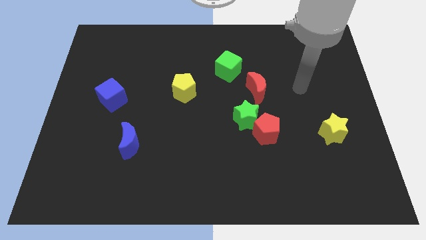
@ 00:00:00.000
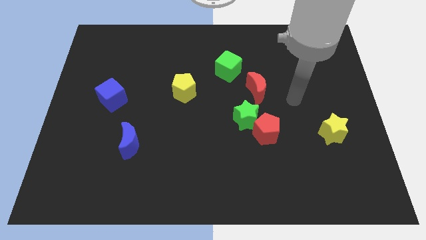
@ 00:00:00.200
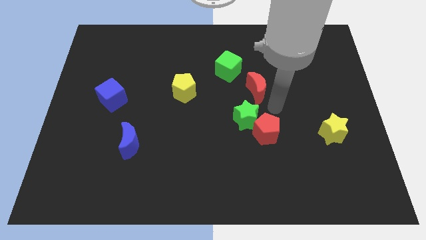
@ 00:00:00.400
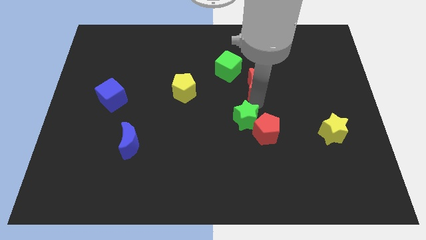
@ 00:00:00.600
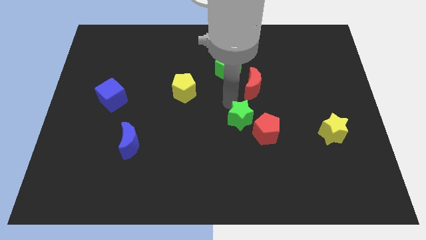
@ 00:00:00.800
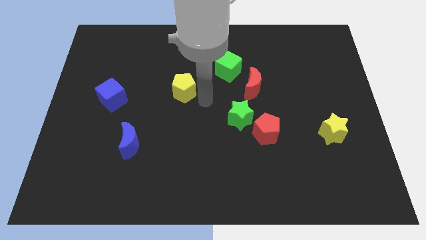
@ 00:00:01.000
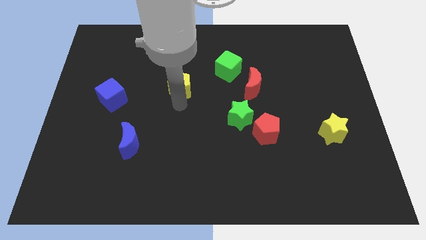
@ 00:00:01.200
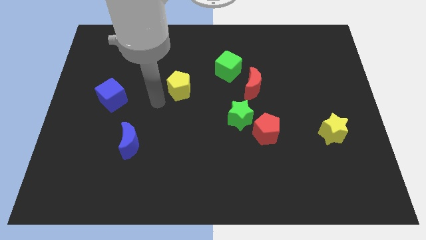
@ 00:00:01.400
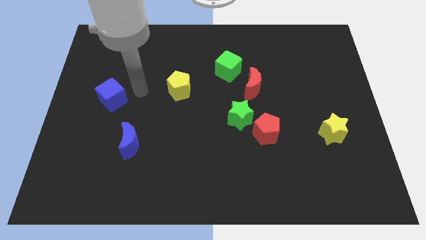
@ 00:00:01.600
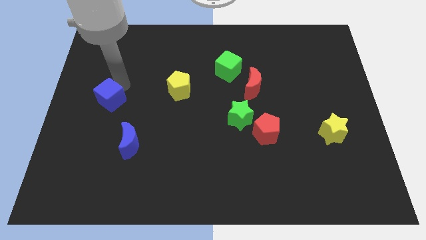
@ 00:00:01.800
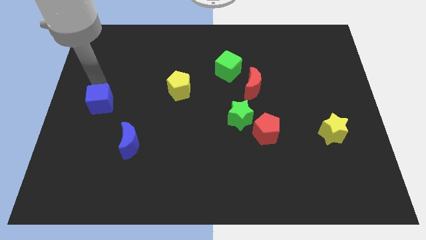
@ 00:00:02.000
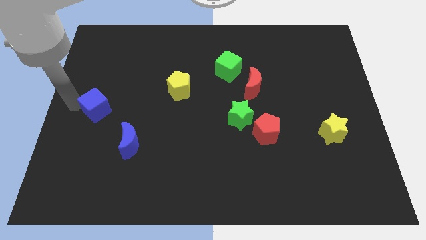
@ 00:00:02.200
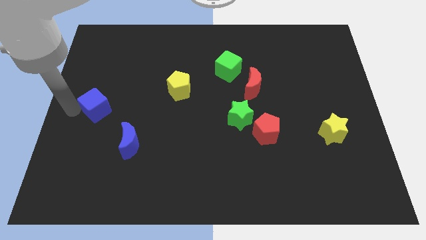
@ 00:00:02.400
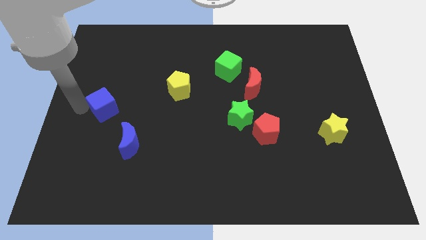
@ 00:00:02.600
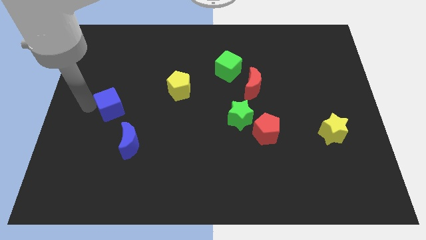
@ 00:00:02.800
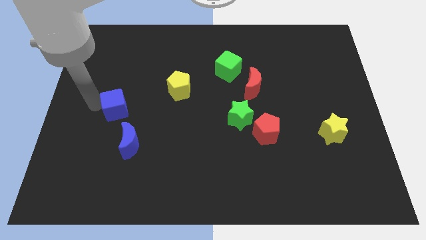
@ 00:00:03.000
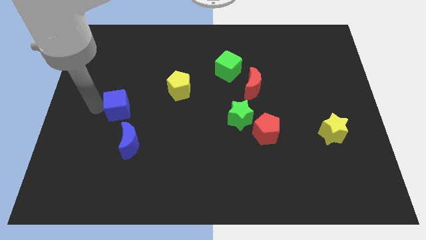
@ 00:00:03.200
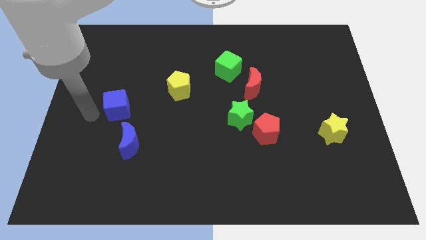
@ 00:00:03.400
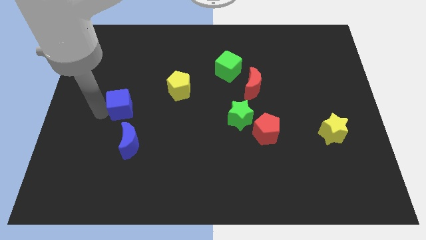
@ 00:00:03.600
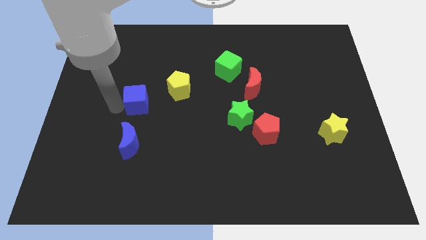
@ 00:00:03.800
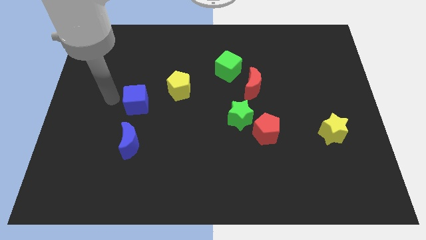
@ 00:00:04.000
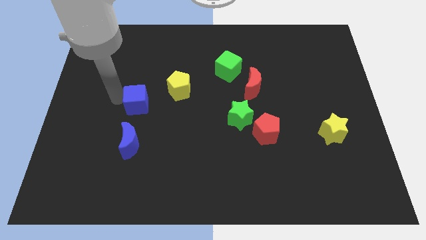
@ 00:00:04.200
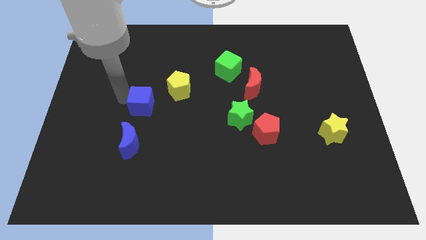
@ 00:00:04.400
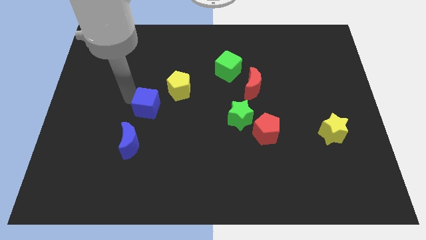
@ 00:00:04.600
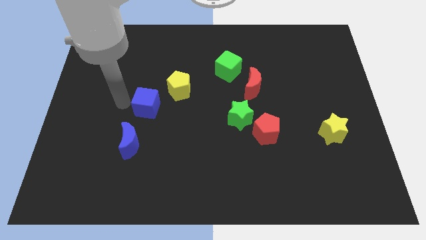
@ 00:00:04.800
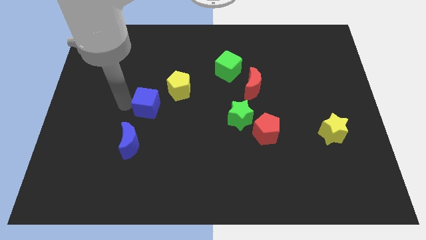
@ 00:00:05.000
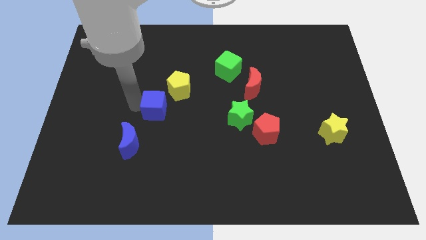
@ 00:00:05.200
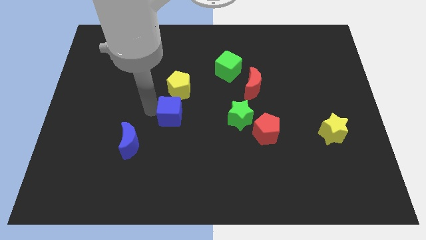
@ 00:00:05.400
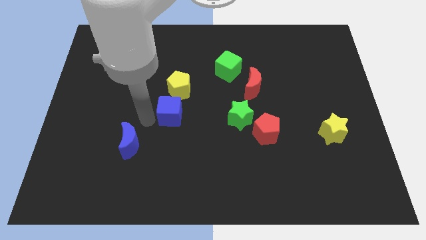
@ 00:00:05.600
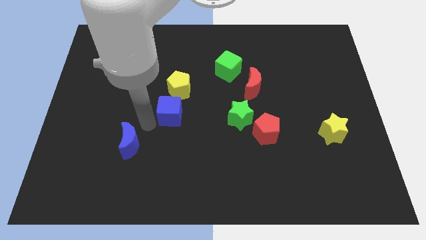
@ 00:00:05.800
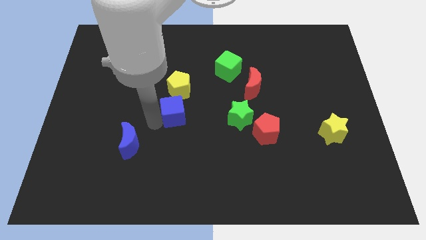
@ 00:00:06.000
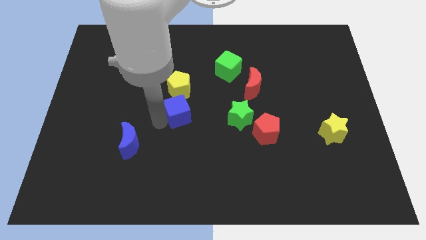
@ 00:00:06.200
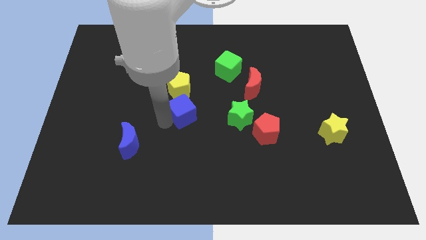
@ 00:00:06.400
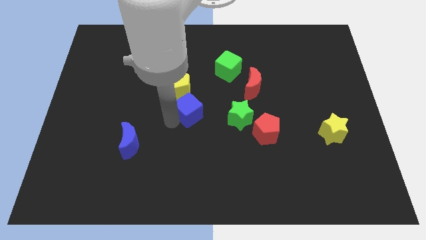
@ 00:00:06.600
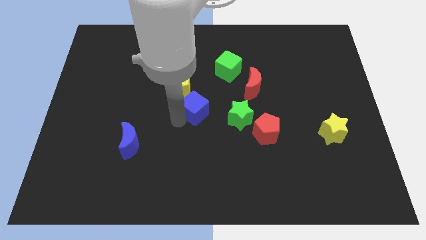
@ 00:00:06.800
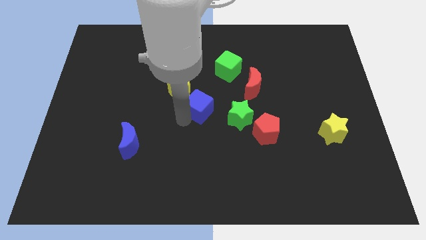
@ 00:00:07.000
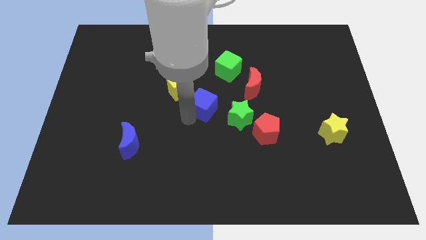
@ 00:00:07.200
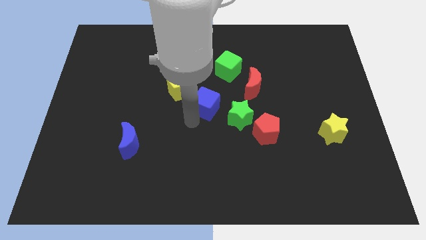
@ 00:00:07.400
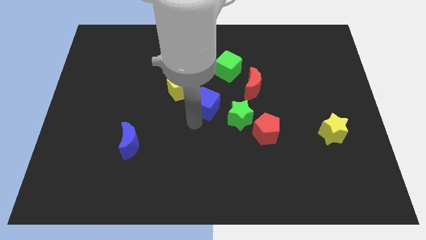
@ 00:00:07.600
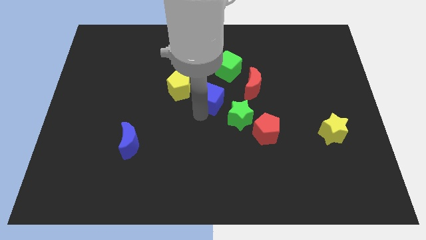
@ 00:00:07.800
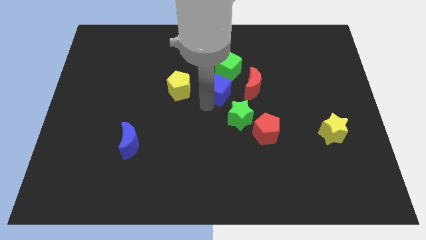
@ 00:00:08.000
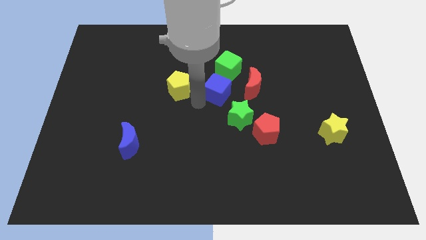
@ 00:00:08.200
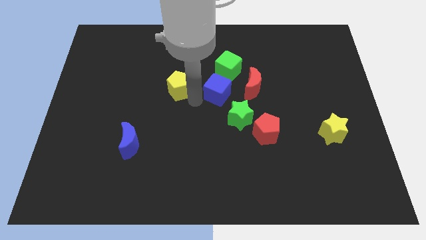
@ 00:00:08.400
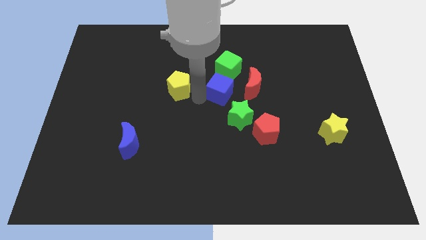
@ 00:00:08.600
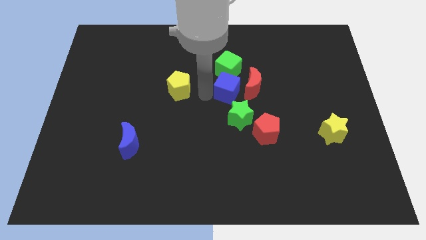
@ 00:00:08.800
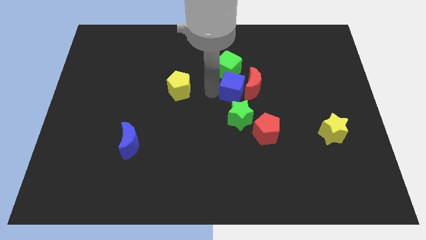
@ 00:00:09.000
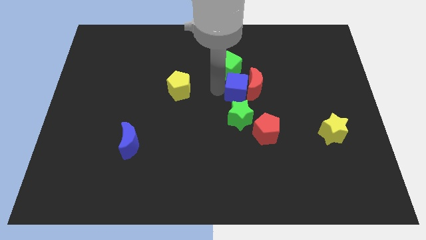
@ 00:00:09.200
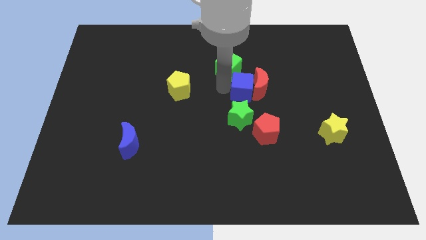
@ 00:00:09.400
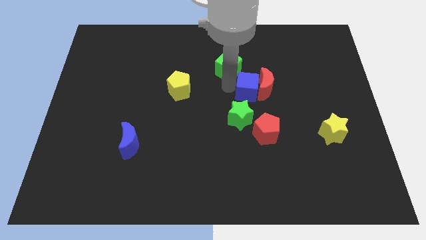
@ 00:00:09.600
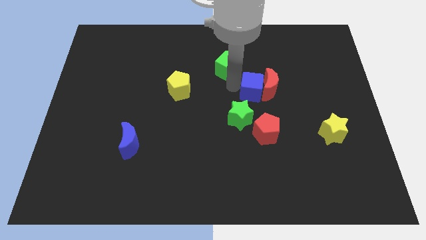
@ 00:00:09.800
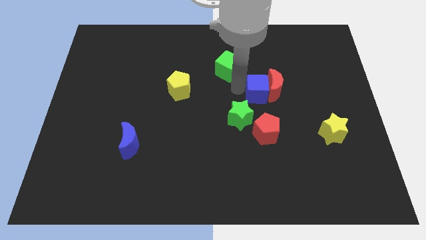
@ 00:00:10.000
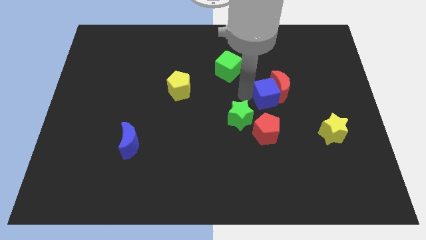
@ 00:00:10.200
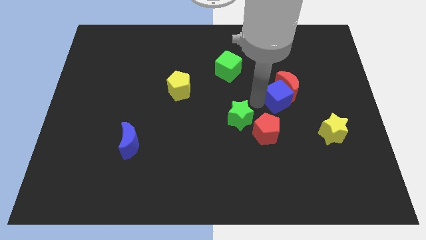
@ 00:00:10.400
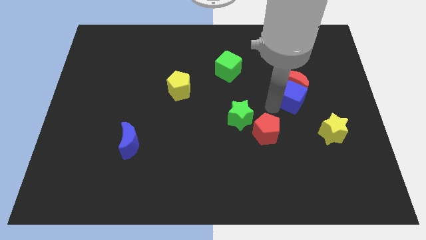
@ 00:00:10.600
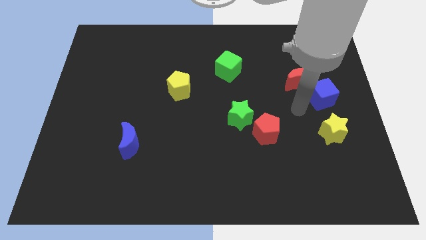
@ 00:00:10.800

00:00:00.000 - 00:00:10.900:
push the blue cube to the top of the yellow star

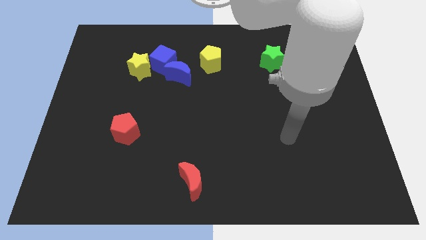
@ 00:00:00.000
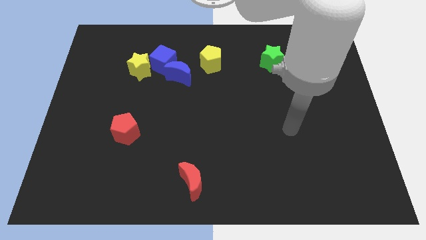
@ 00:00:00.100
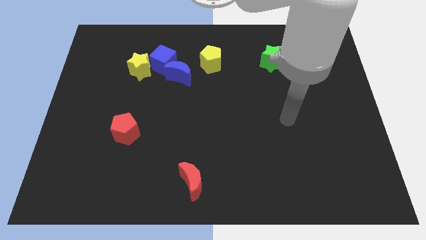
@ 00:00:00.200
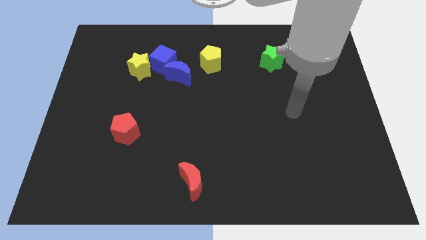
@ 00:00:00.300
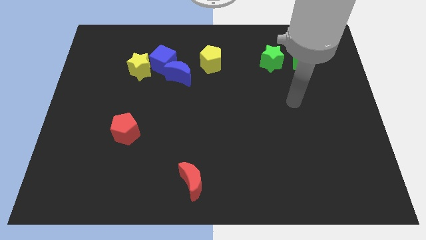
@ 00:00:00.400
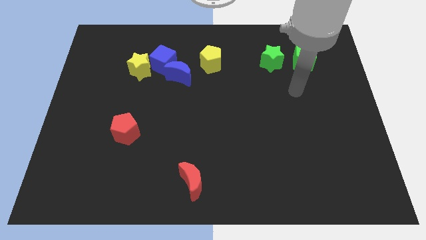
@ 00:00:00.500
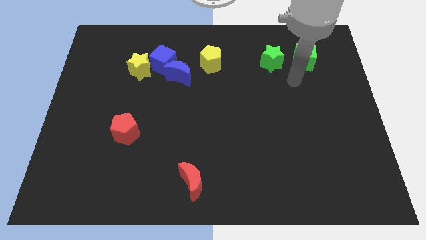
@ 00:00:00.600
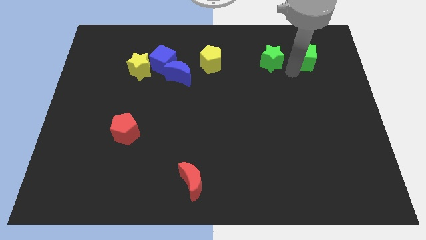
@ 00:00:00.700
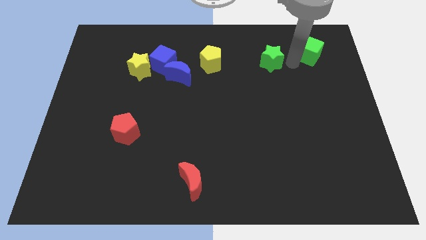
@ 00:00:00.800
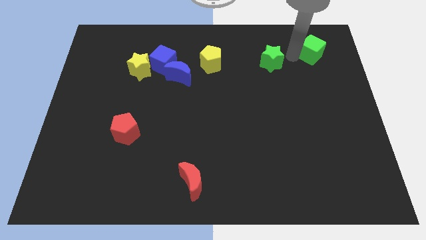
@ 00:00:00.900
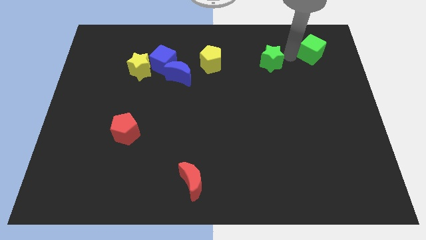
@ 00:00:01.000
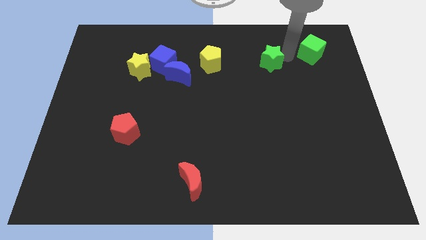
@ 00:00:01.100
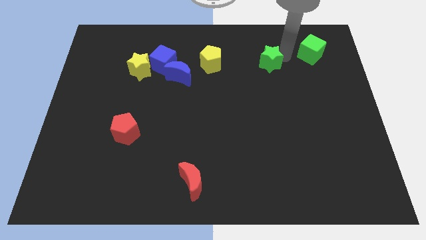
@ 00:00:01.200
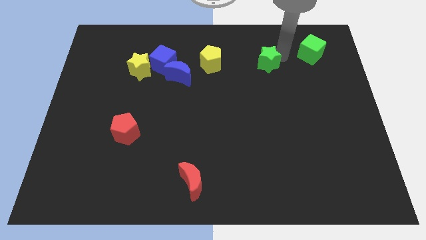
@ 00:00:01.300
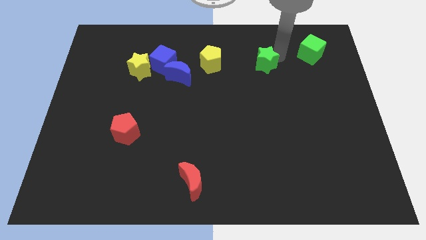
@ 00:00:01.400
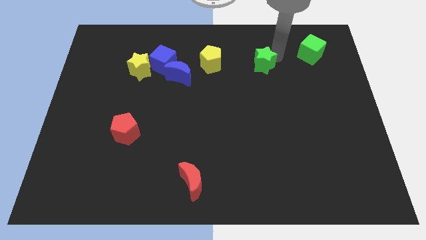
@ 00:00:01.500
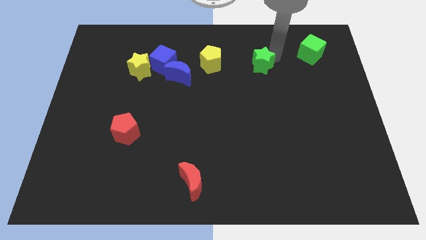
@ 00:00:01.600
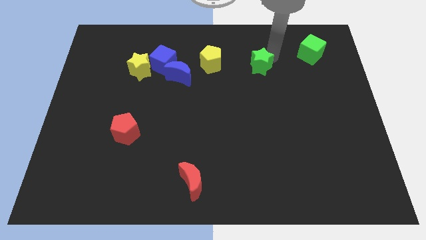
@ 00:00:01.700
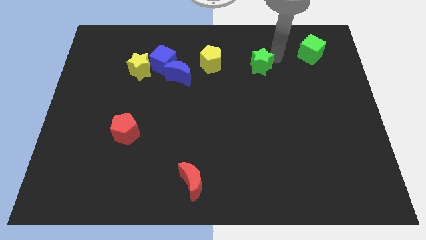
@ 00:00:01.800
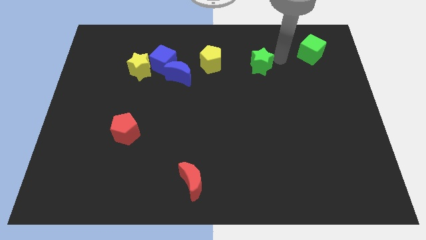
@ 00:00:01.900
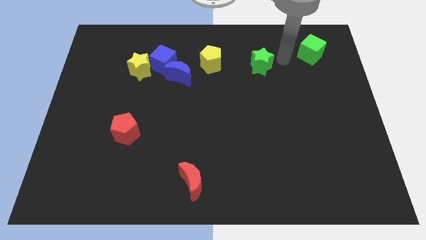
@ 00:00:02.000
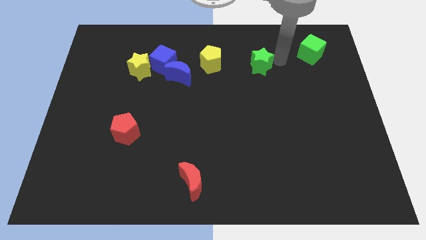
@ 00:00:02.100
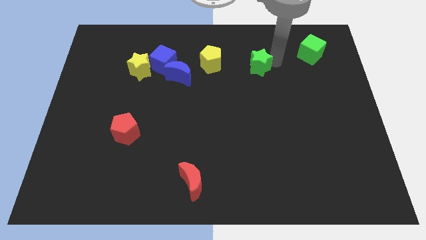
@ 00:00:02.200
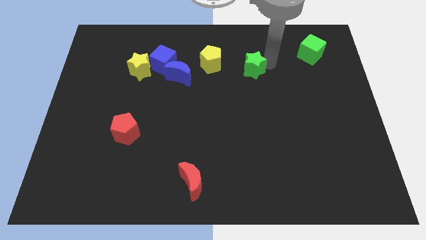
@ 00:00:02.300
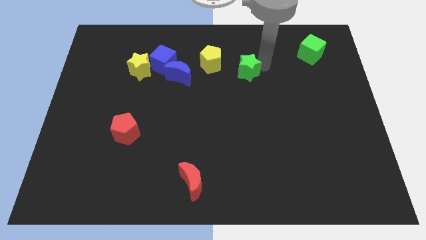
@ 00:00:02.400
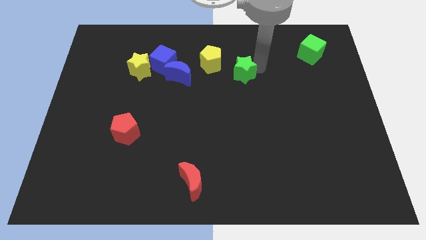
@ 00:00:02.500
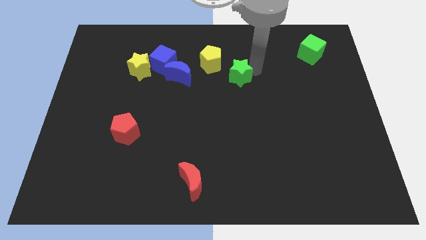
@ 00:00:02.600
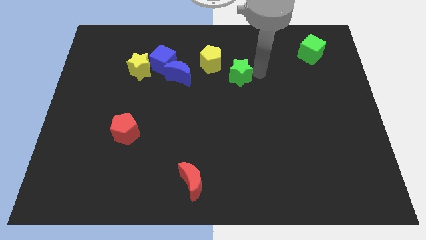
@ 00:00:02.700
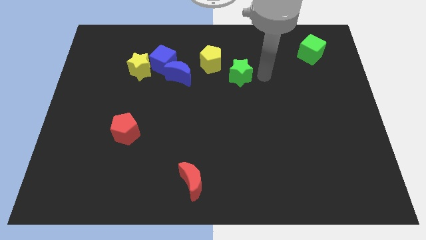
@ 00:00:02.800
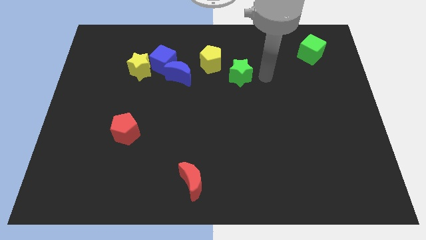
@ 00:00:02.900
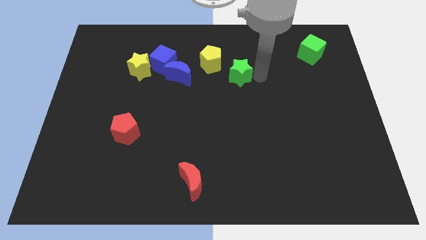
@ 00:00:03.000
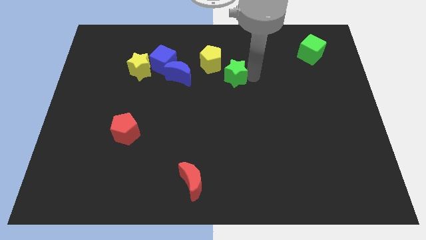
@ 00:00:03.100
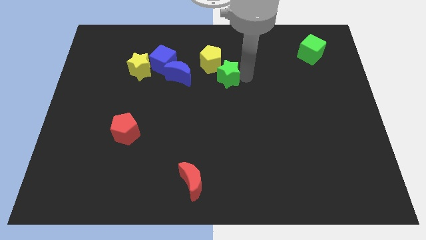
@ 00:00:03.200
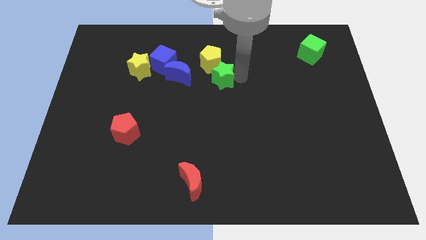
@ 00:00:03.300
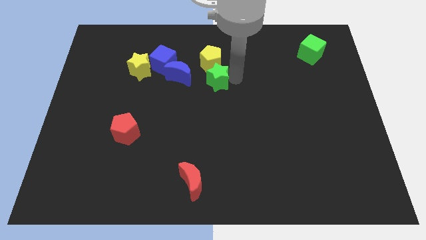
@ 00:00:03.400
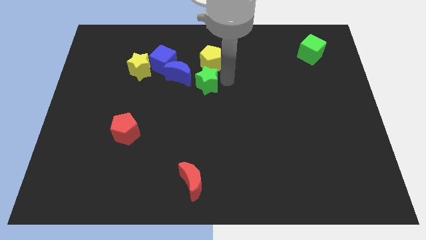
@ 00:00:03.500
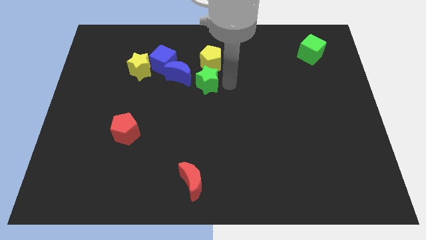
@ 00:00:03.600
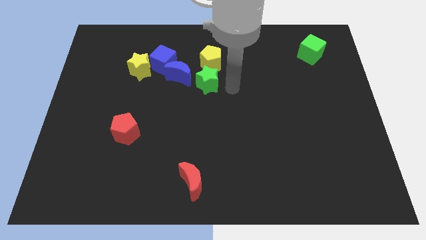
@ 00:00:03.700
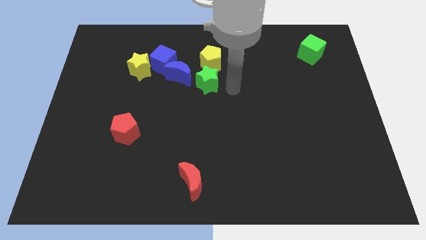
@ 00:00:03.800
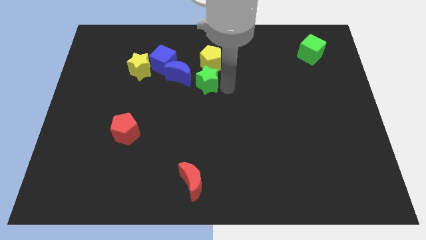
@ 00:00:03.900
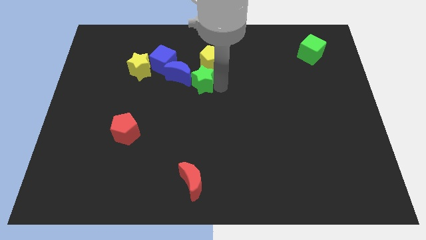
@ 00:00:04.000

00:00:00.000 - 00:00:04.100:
put the green star to the bottom right side of the blue cube
